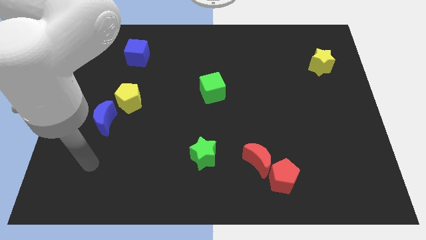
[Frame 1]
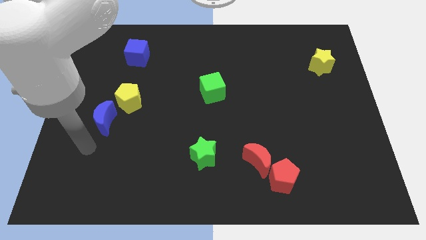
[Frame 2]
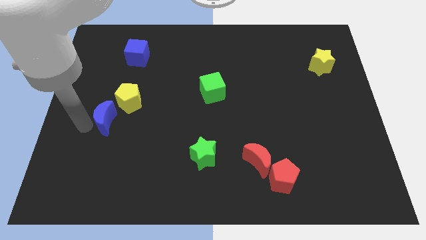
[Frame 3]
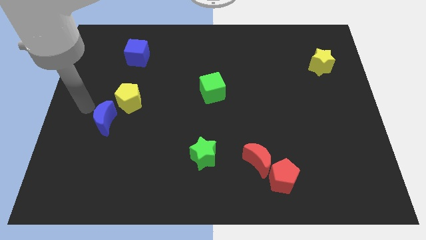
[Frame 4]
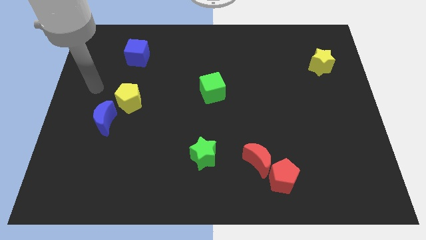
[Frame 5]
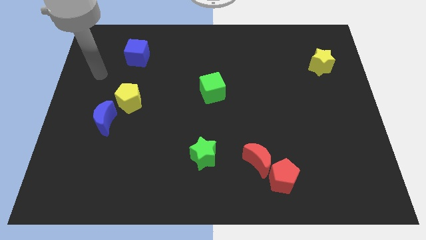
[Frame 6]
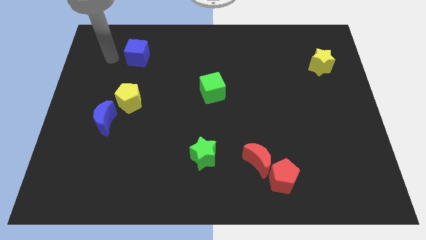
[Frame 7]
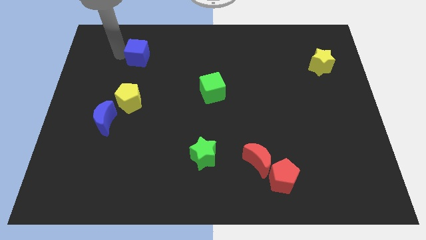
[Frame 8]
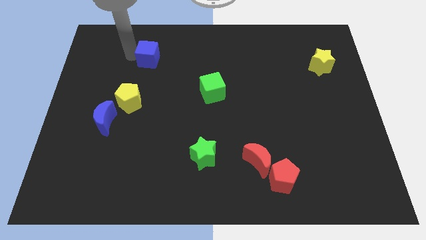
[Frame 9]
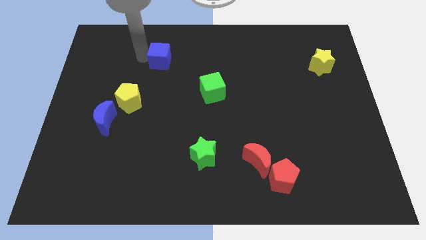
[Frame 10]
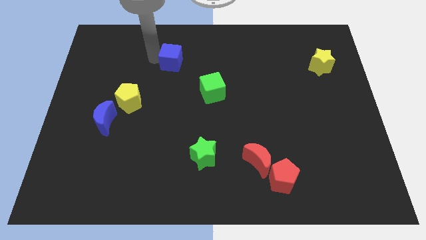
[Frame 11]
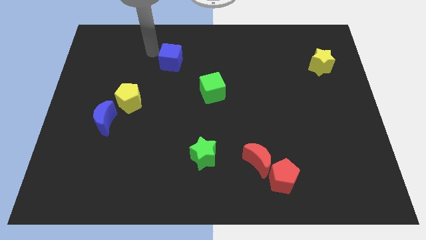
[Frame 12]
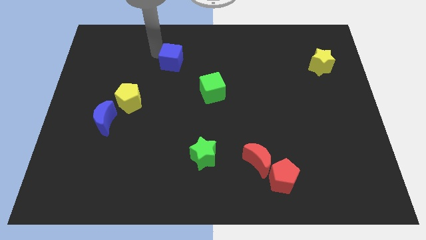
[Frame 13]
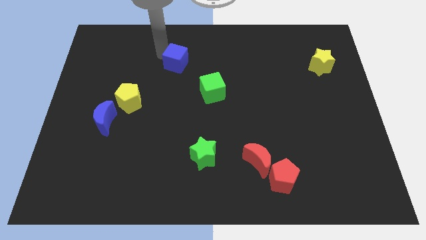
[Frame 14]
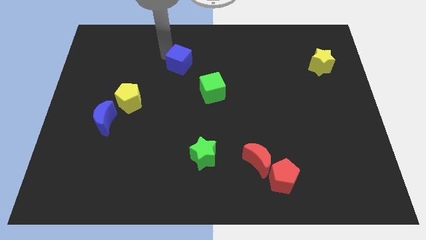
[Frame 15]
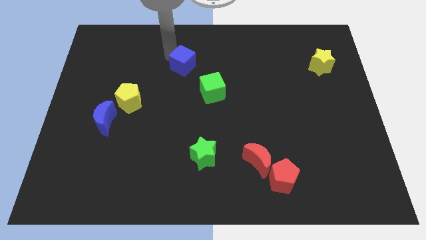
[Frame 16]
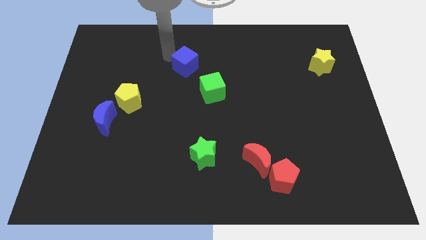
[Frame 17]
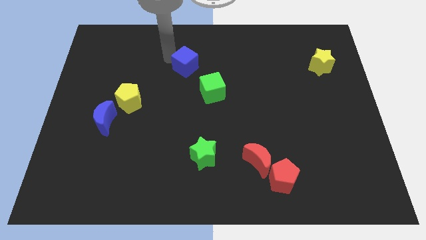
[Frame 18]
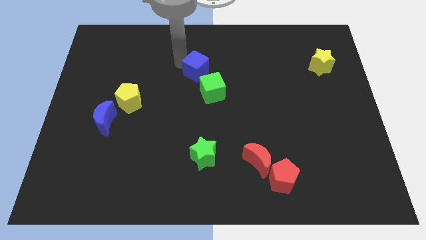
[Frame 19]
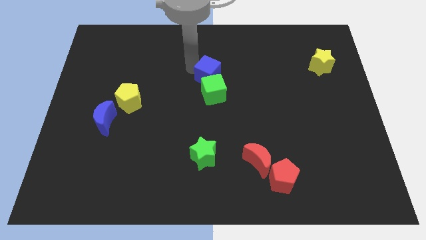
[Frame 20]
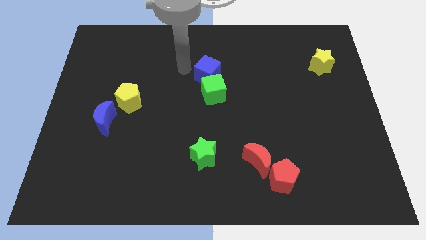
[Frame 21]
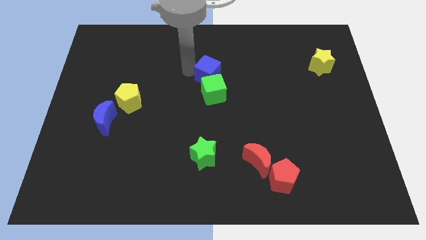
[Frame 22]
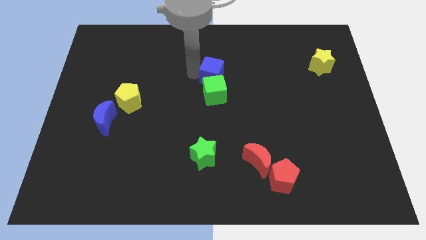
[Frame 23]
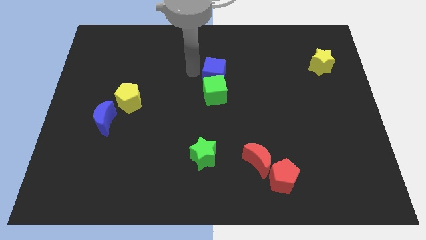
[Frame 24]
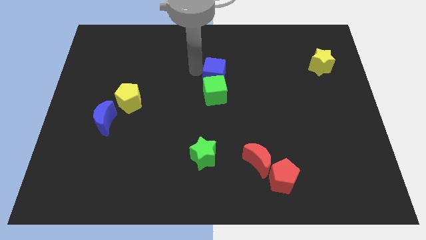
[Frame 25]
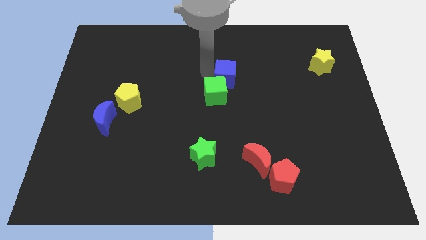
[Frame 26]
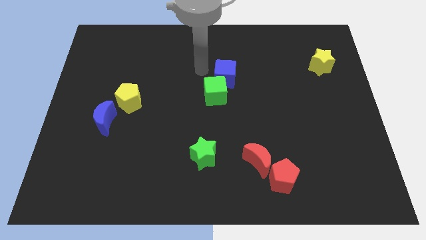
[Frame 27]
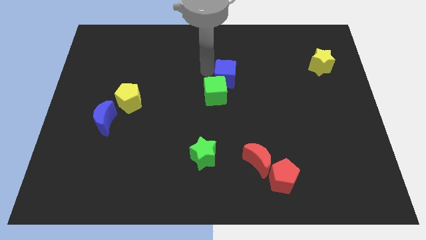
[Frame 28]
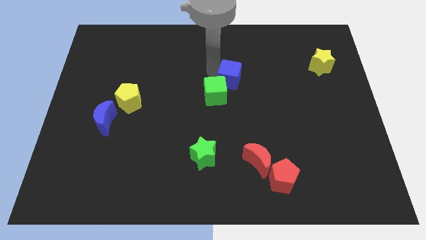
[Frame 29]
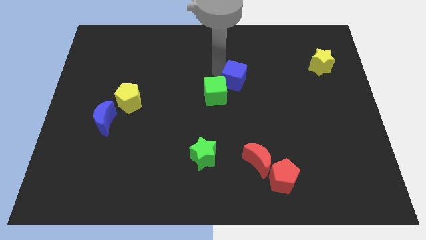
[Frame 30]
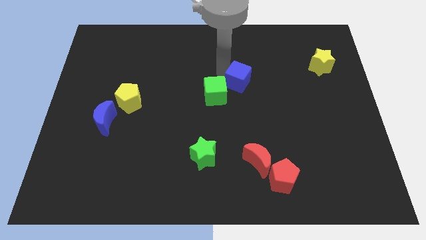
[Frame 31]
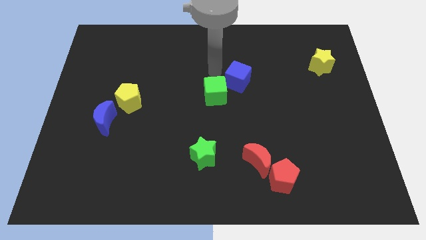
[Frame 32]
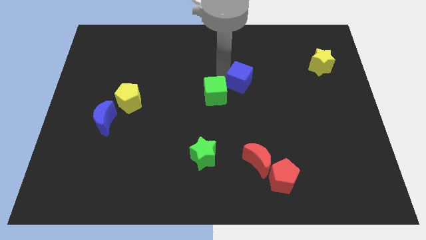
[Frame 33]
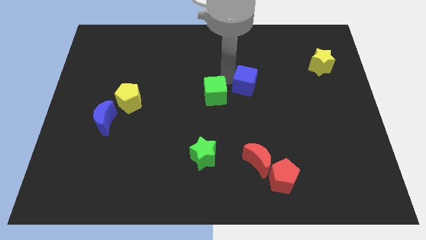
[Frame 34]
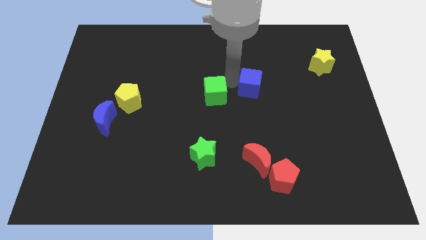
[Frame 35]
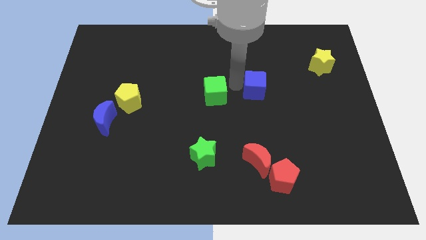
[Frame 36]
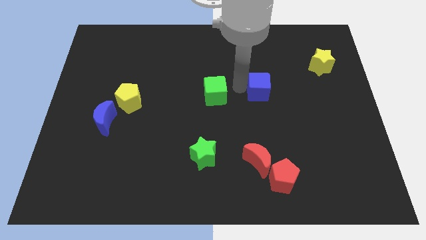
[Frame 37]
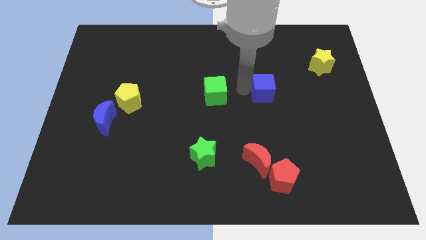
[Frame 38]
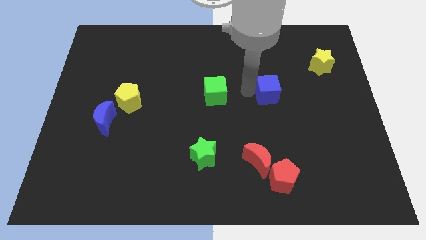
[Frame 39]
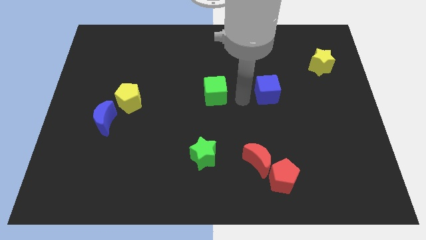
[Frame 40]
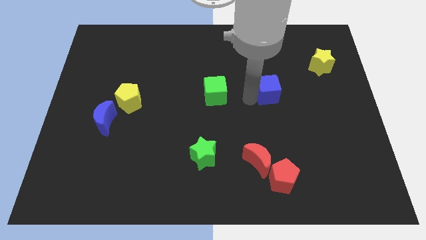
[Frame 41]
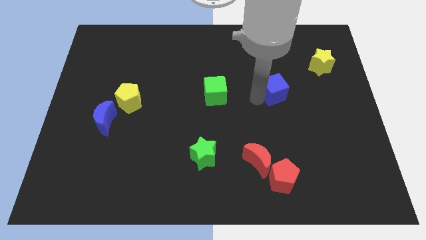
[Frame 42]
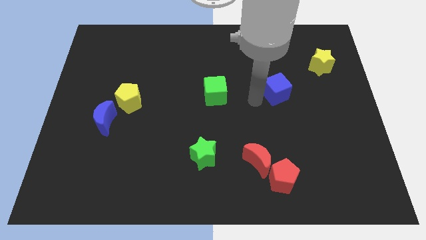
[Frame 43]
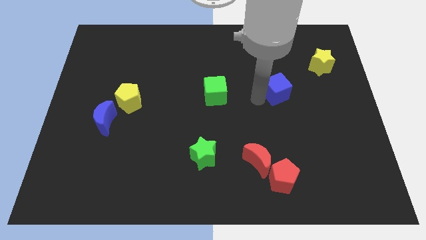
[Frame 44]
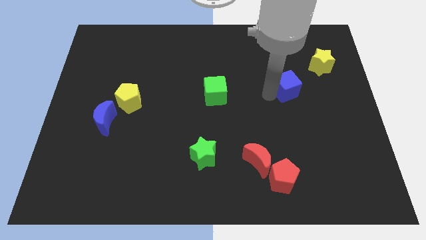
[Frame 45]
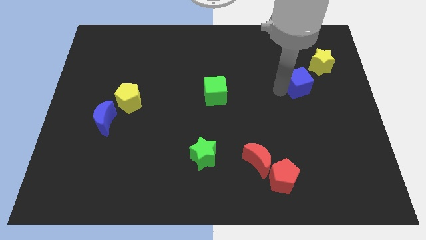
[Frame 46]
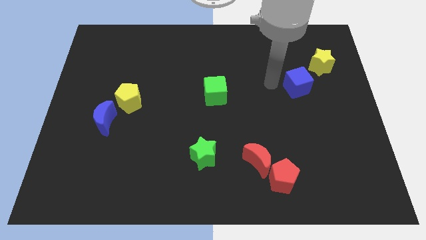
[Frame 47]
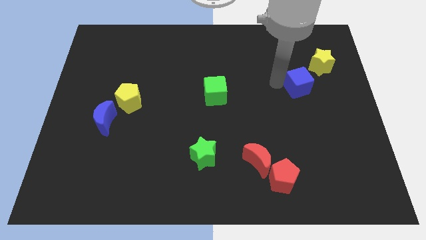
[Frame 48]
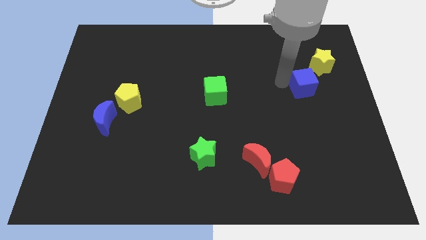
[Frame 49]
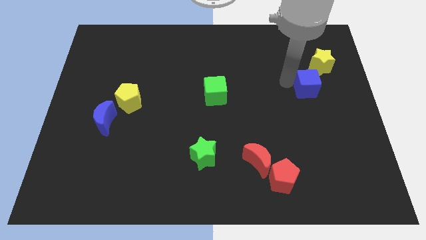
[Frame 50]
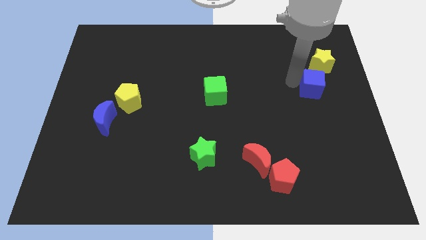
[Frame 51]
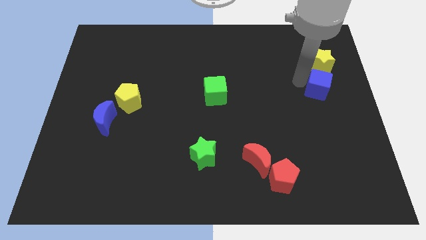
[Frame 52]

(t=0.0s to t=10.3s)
slide the blue cube to the right side

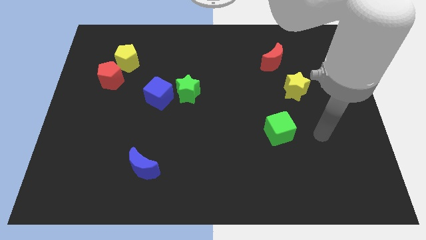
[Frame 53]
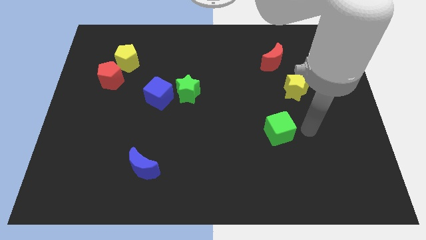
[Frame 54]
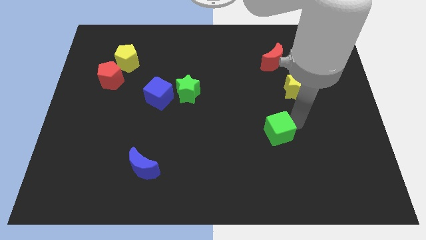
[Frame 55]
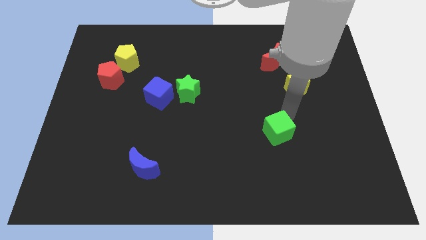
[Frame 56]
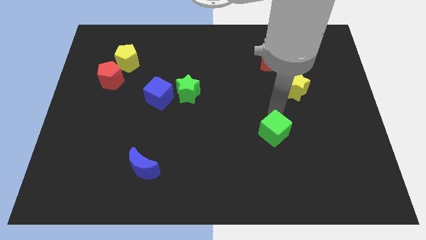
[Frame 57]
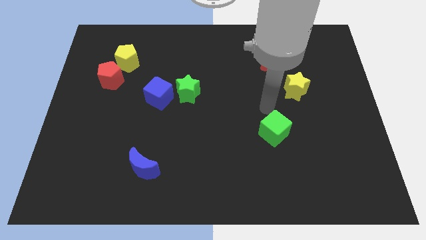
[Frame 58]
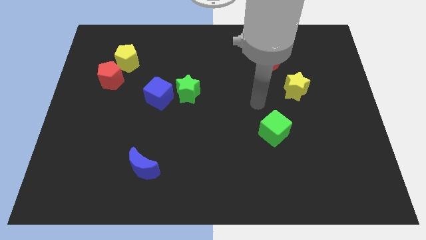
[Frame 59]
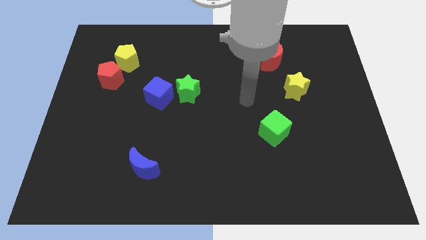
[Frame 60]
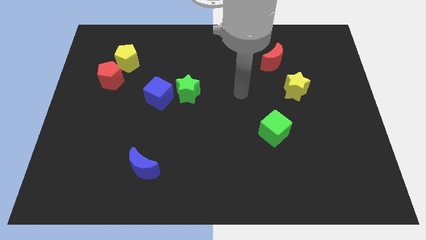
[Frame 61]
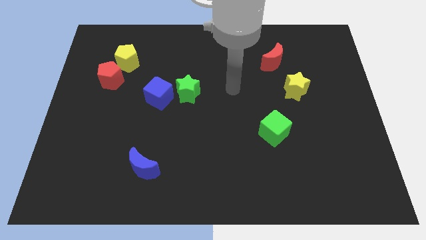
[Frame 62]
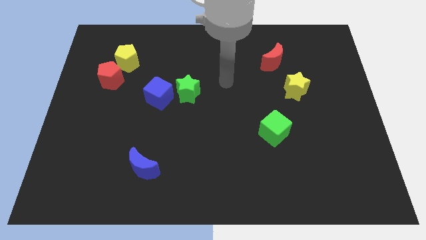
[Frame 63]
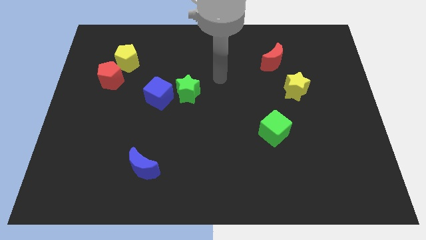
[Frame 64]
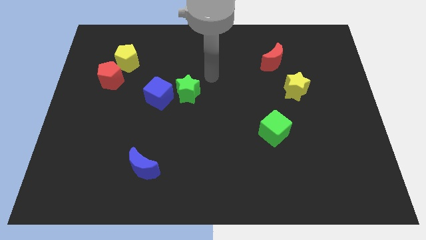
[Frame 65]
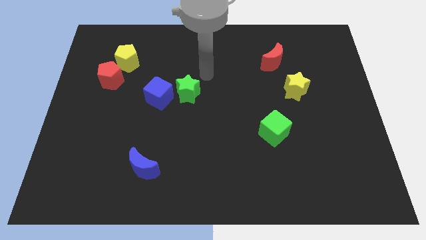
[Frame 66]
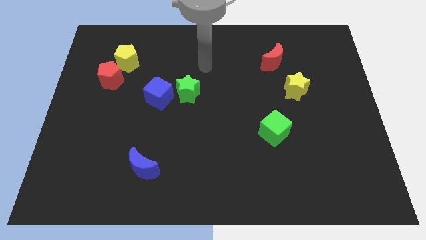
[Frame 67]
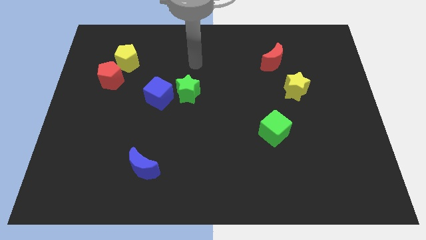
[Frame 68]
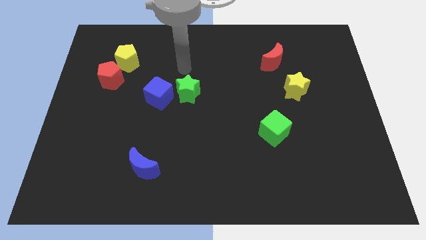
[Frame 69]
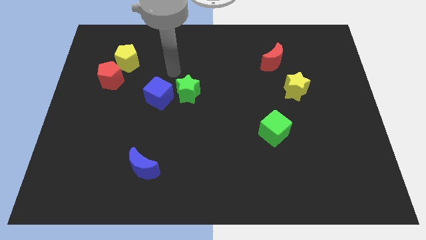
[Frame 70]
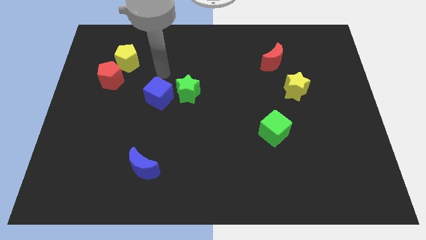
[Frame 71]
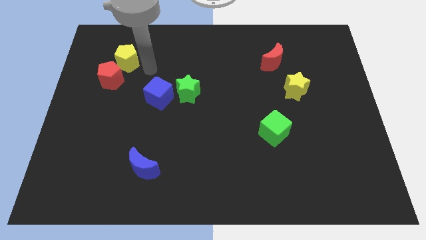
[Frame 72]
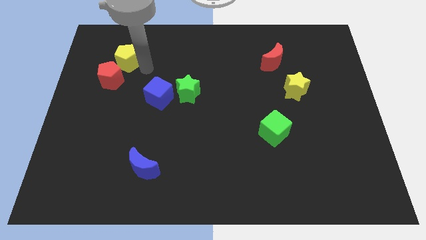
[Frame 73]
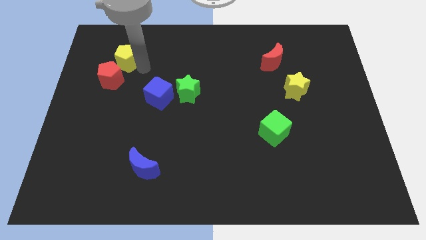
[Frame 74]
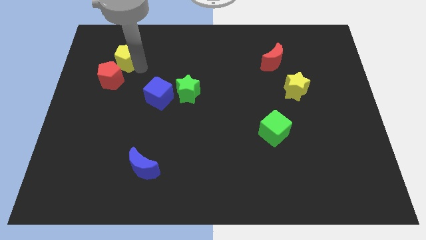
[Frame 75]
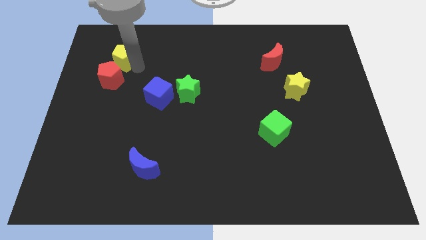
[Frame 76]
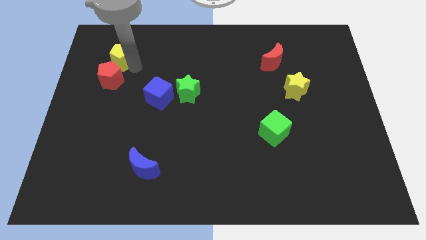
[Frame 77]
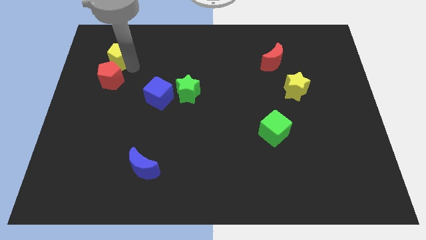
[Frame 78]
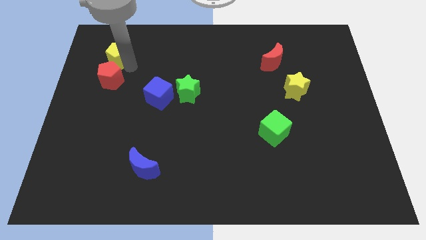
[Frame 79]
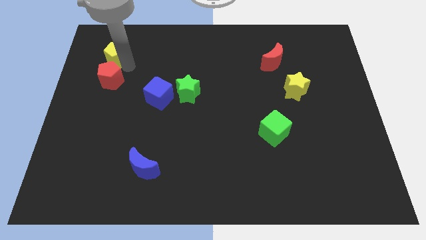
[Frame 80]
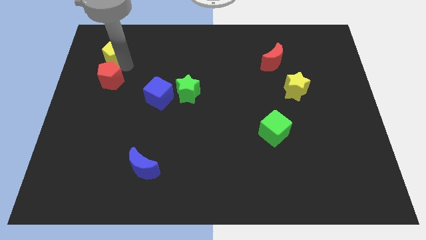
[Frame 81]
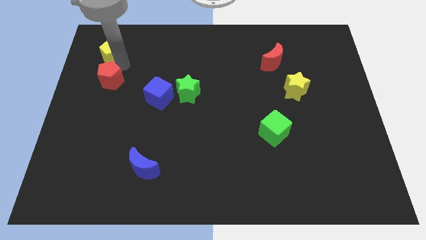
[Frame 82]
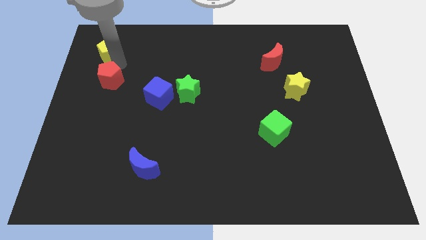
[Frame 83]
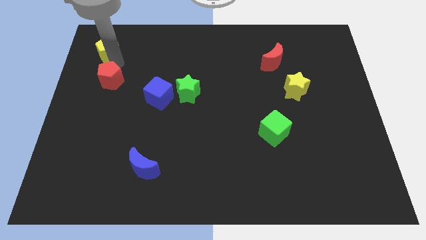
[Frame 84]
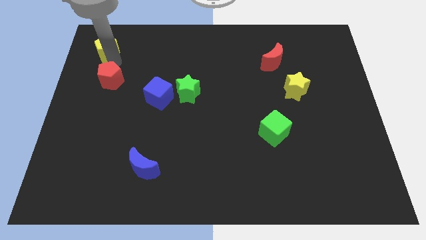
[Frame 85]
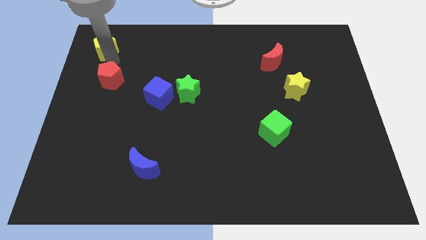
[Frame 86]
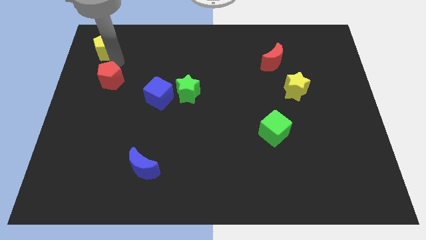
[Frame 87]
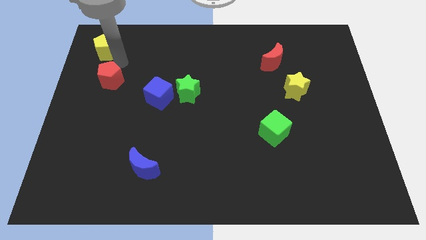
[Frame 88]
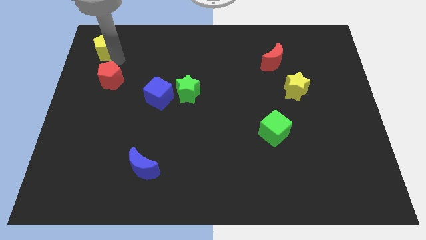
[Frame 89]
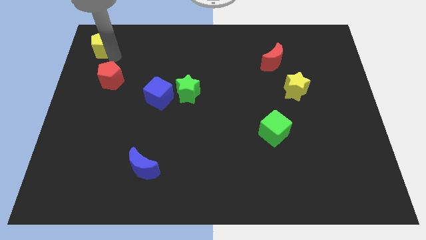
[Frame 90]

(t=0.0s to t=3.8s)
move the yellow pentagon to the top left
